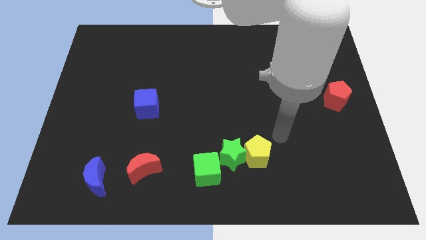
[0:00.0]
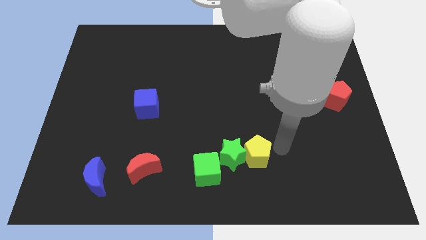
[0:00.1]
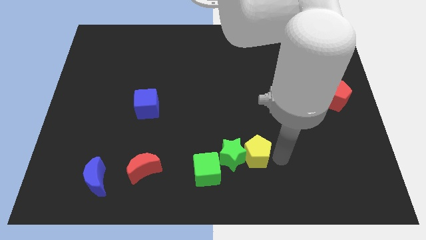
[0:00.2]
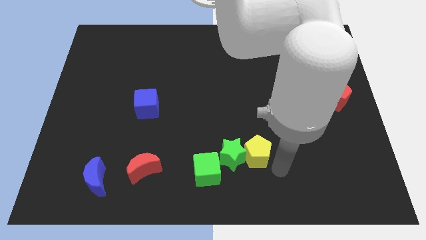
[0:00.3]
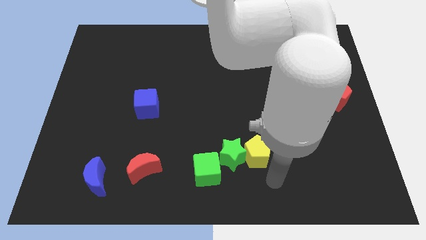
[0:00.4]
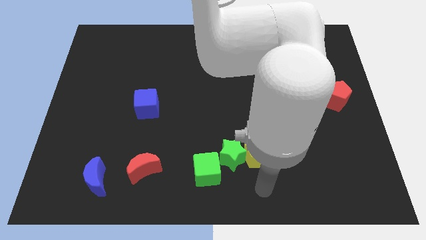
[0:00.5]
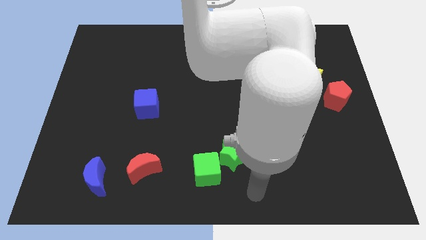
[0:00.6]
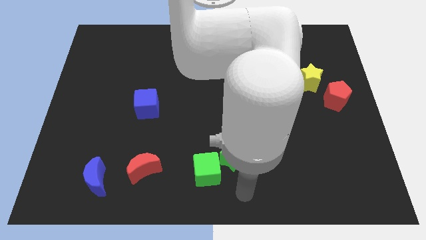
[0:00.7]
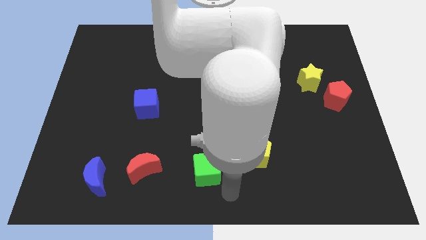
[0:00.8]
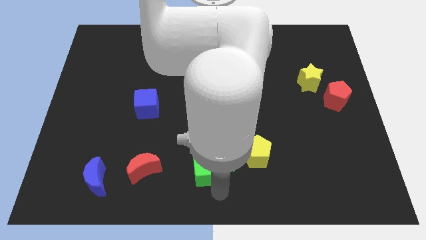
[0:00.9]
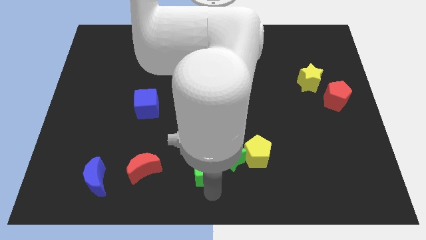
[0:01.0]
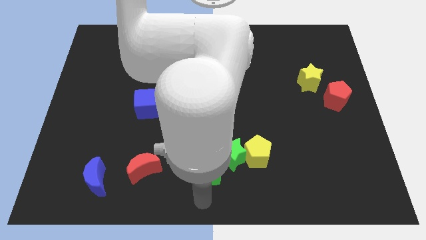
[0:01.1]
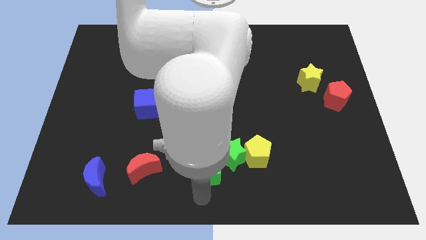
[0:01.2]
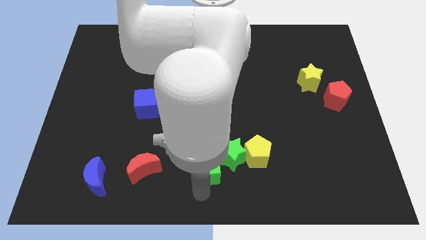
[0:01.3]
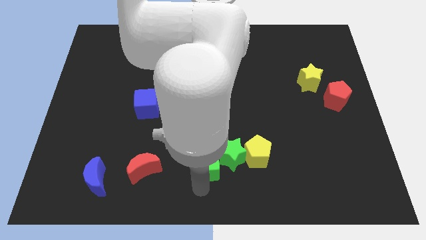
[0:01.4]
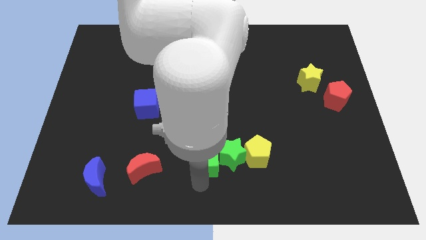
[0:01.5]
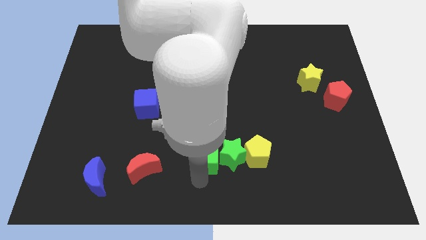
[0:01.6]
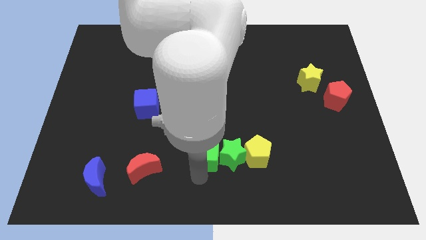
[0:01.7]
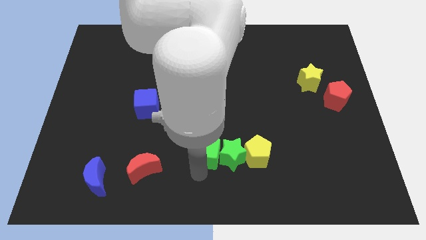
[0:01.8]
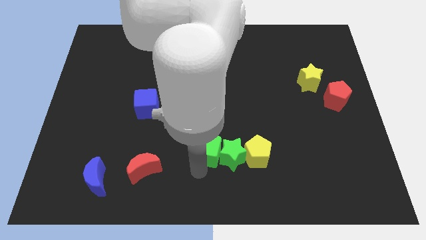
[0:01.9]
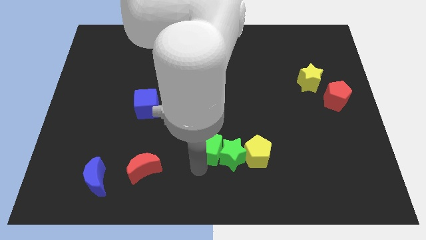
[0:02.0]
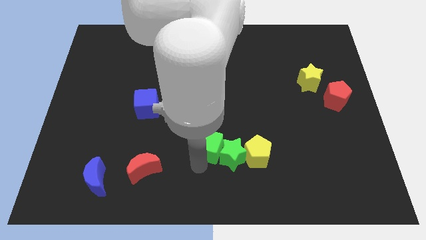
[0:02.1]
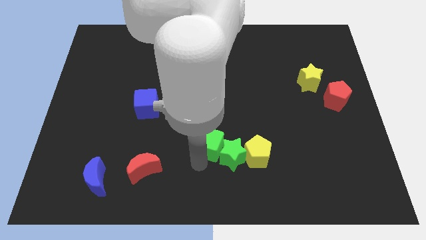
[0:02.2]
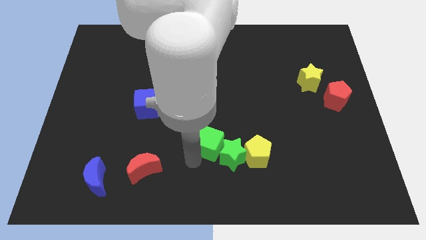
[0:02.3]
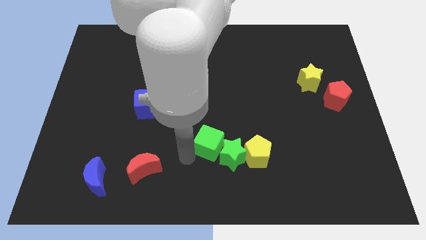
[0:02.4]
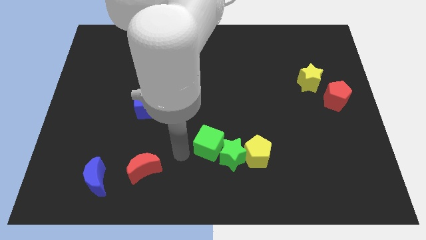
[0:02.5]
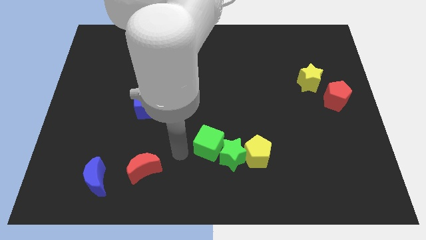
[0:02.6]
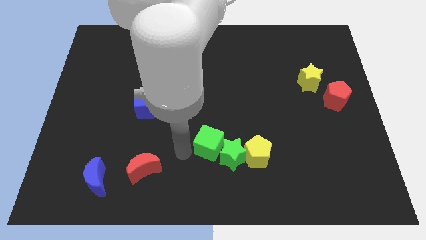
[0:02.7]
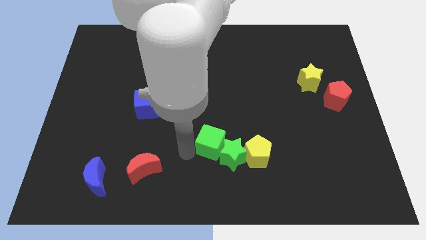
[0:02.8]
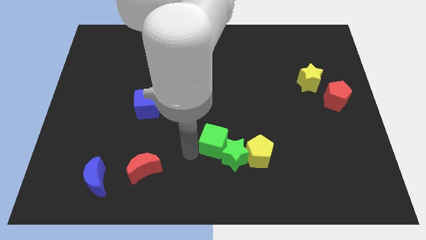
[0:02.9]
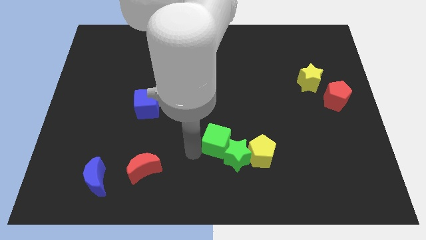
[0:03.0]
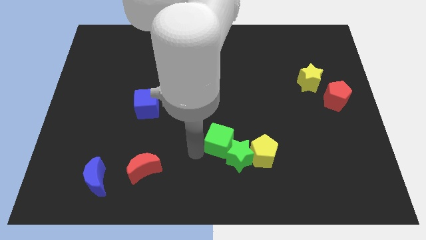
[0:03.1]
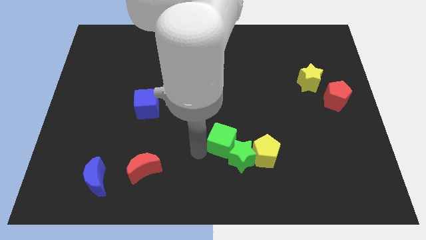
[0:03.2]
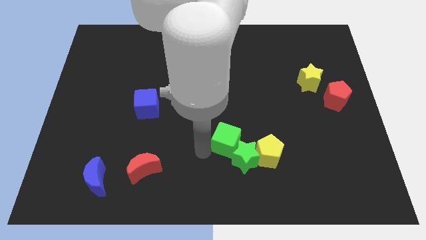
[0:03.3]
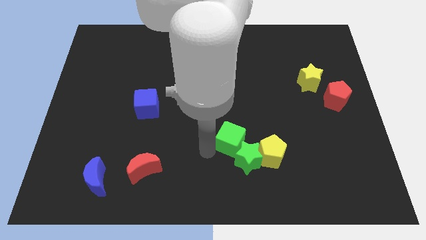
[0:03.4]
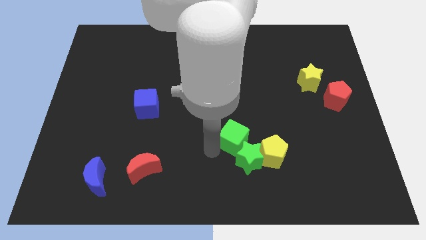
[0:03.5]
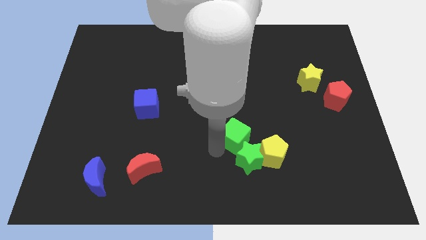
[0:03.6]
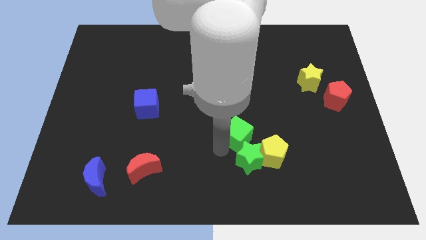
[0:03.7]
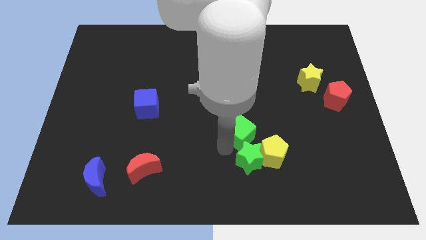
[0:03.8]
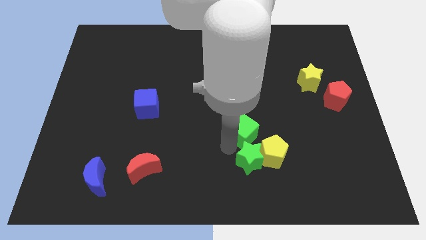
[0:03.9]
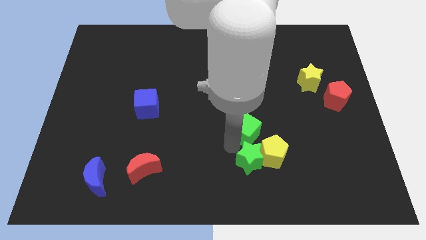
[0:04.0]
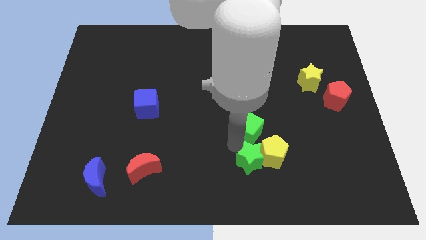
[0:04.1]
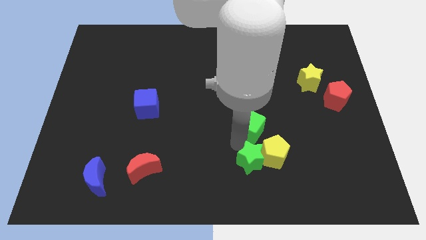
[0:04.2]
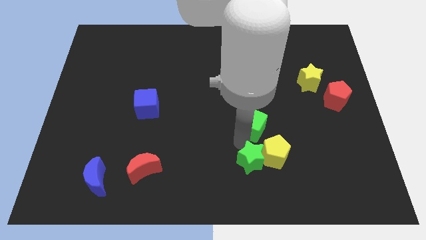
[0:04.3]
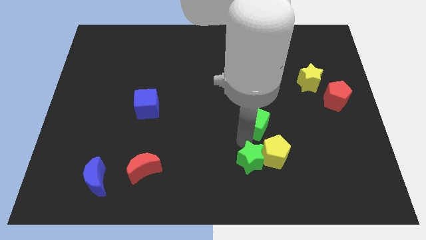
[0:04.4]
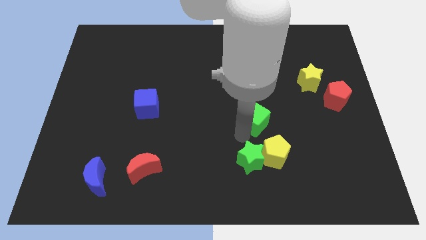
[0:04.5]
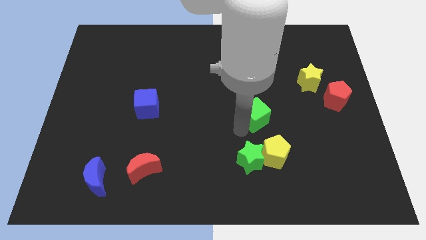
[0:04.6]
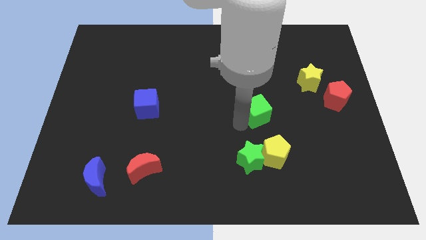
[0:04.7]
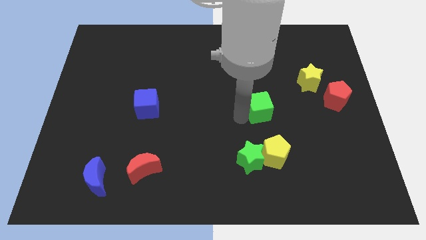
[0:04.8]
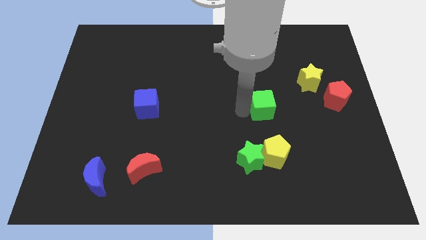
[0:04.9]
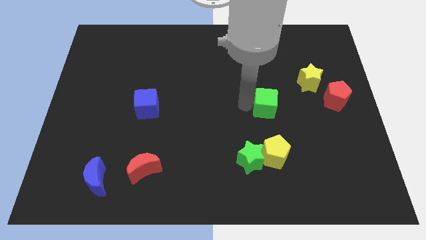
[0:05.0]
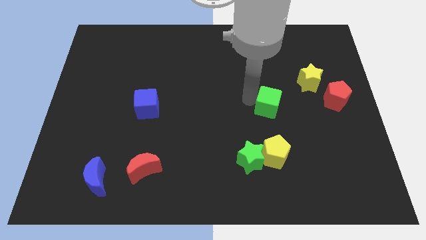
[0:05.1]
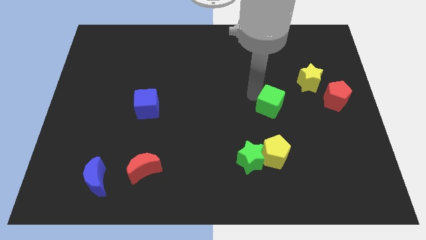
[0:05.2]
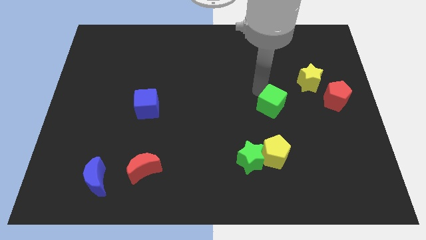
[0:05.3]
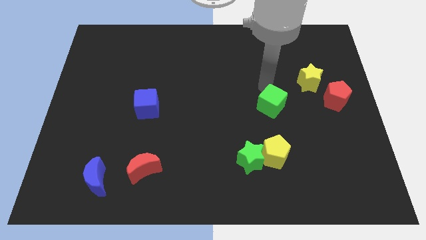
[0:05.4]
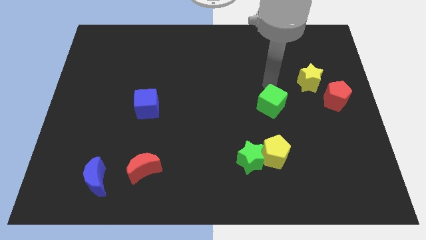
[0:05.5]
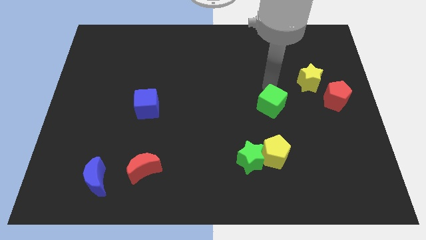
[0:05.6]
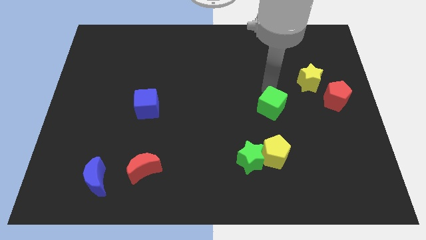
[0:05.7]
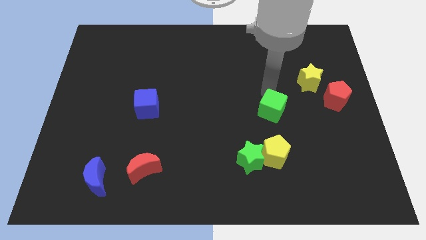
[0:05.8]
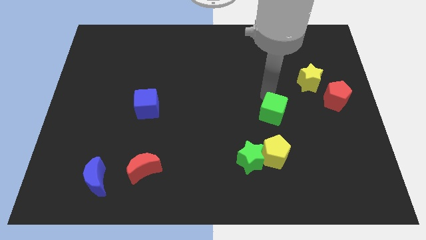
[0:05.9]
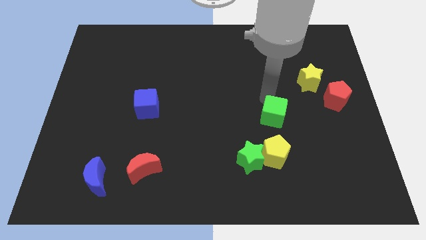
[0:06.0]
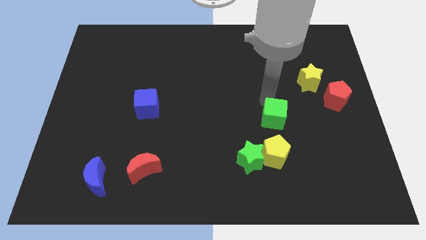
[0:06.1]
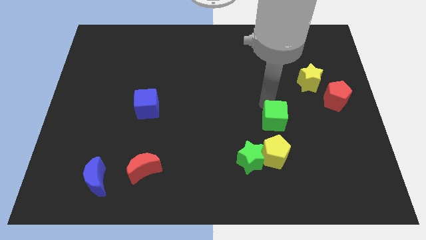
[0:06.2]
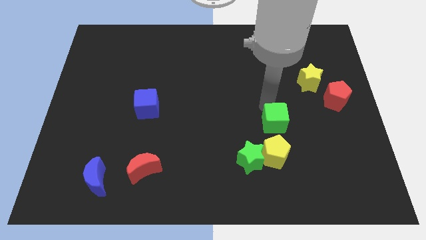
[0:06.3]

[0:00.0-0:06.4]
slide the green cube to the top right of the green star

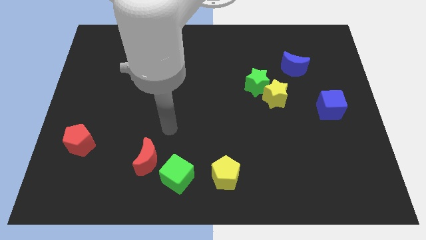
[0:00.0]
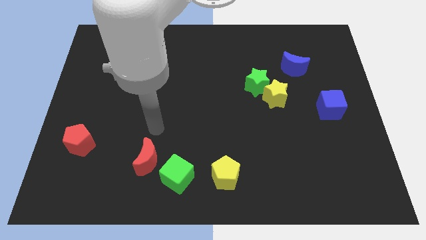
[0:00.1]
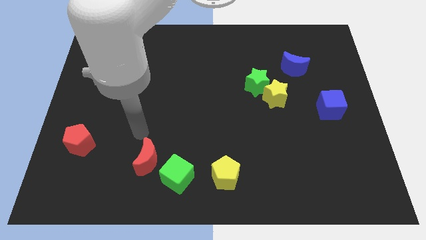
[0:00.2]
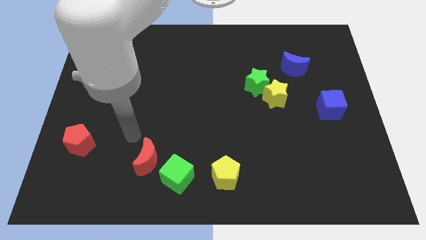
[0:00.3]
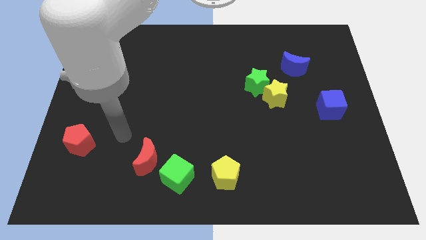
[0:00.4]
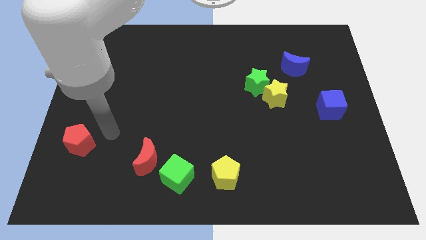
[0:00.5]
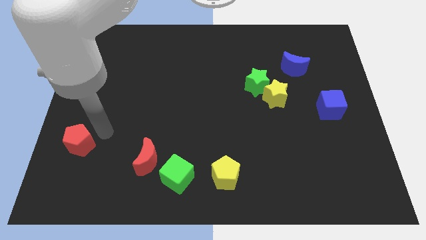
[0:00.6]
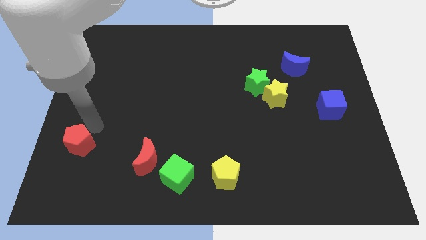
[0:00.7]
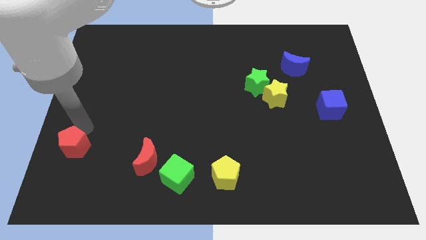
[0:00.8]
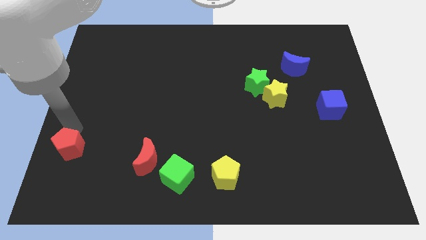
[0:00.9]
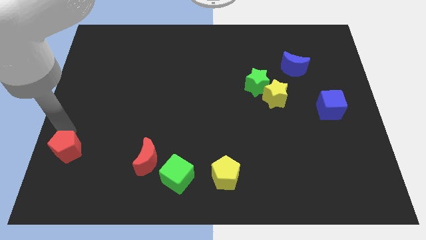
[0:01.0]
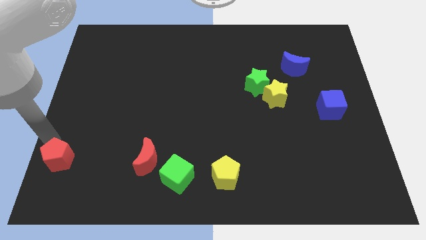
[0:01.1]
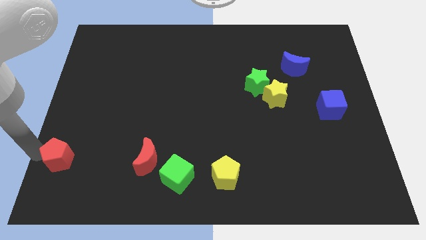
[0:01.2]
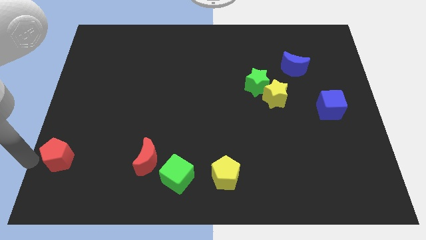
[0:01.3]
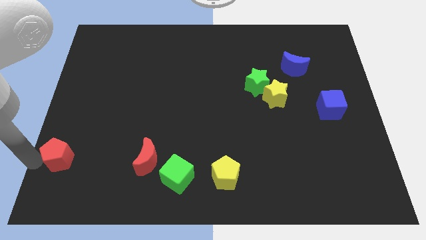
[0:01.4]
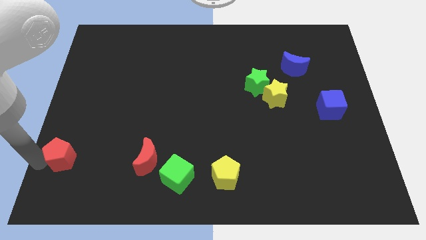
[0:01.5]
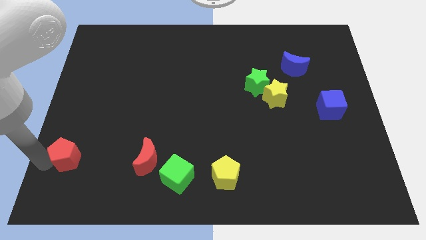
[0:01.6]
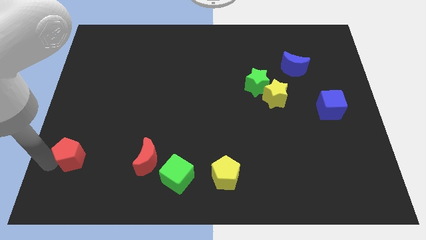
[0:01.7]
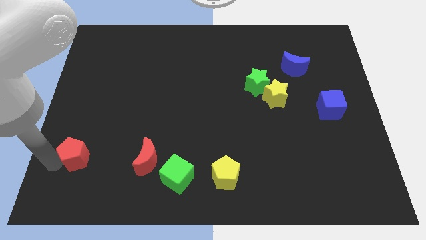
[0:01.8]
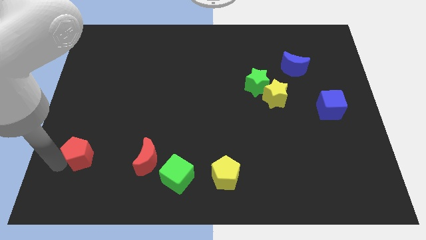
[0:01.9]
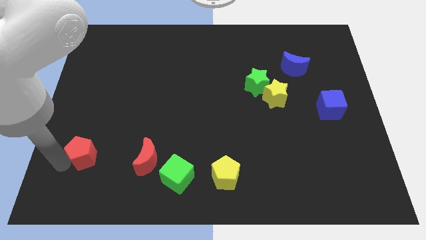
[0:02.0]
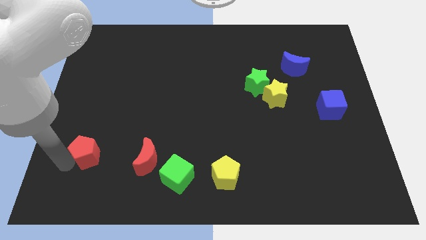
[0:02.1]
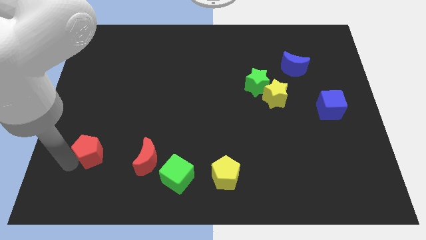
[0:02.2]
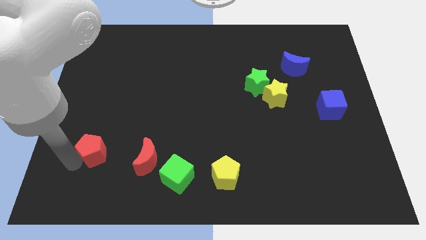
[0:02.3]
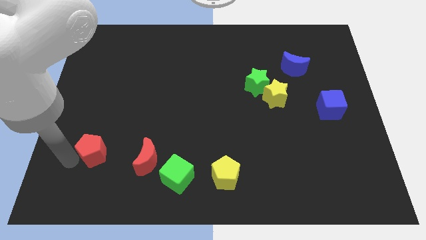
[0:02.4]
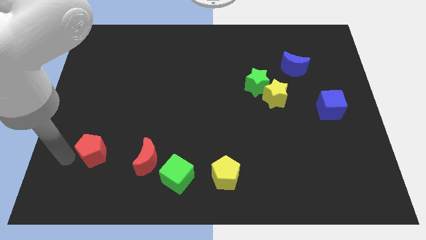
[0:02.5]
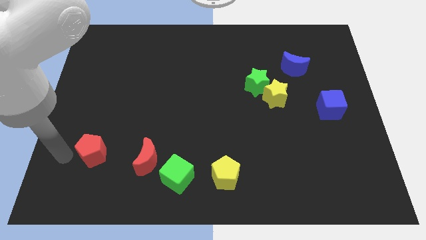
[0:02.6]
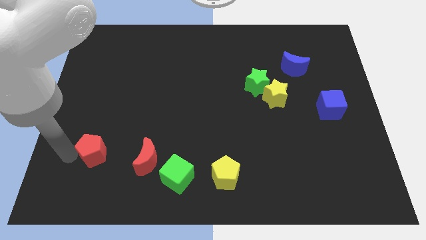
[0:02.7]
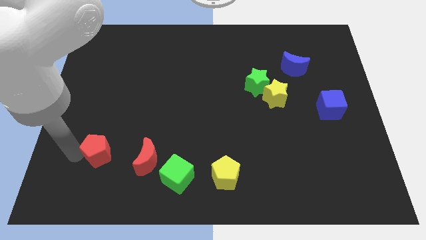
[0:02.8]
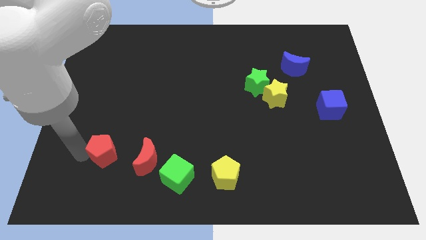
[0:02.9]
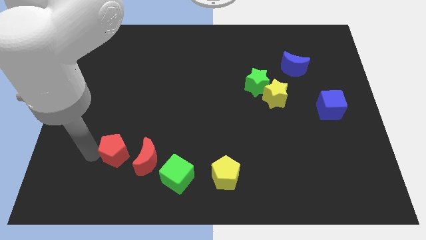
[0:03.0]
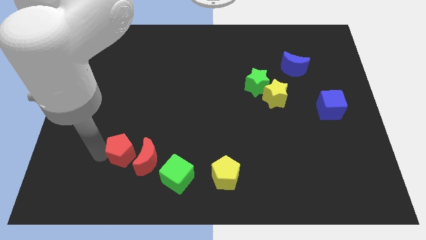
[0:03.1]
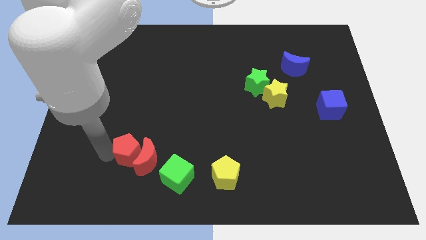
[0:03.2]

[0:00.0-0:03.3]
slide the red pentagon diagonally up and to the left of the green cube
